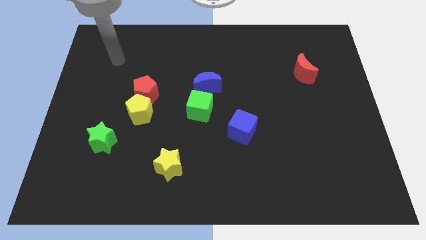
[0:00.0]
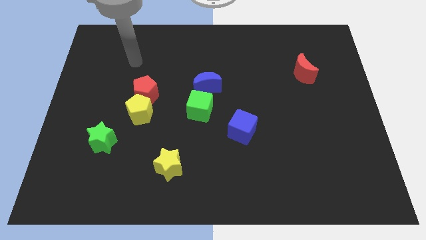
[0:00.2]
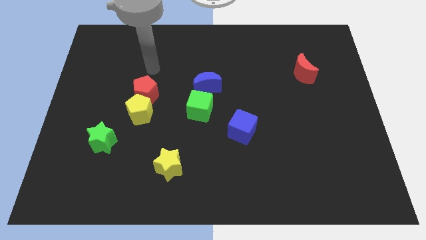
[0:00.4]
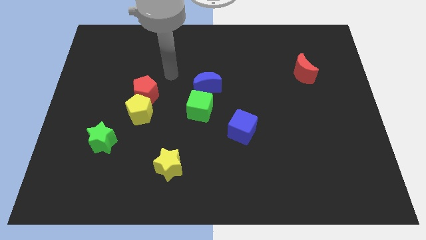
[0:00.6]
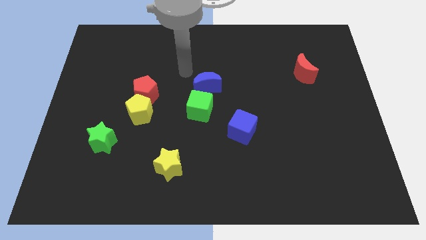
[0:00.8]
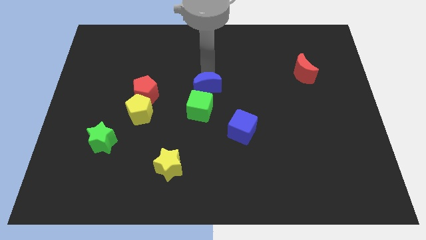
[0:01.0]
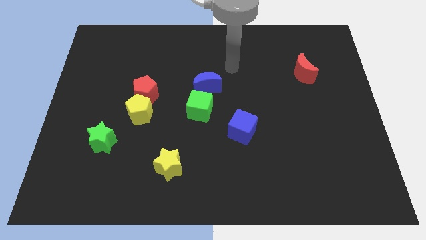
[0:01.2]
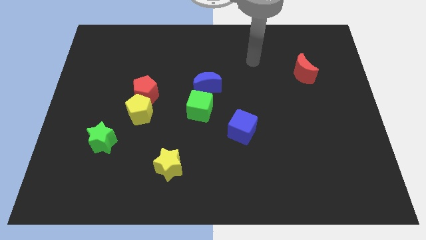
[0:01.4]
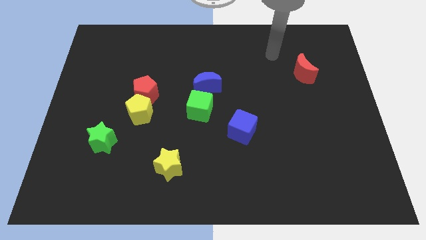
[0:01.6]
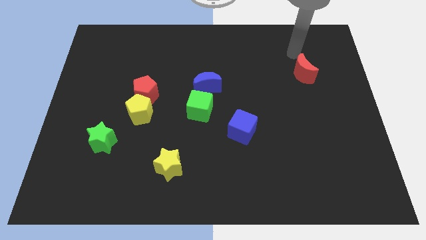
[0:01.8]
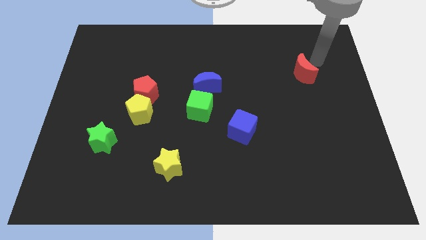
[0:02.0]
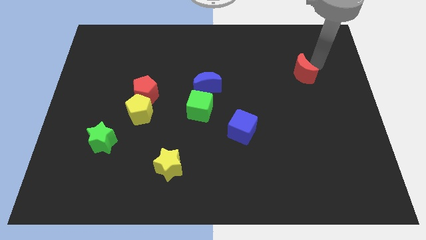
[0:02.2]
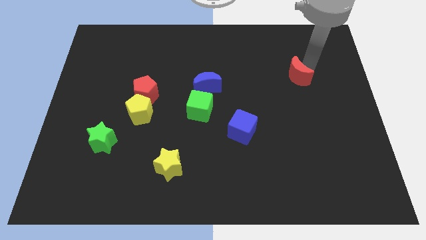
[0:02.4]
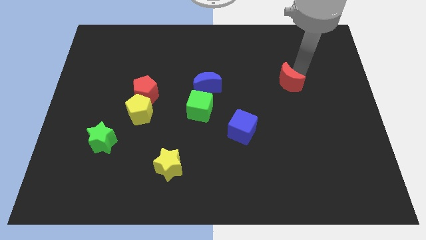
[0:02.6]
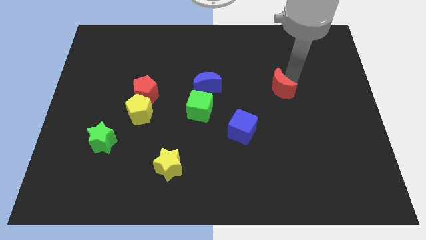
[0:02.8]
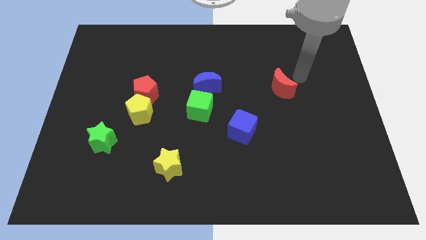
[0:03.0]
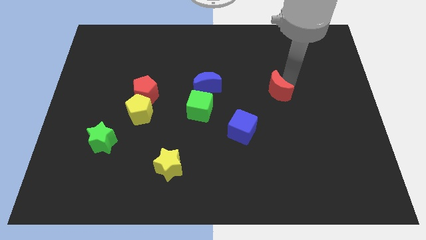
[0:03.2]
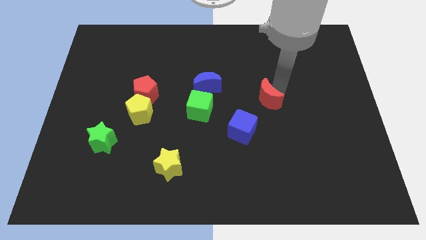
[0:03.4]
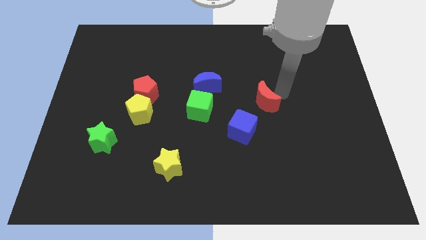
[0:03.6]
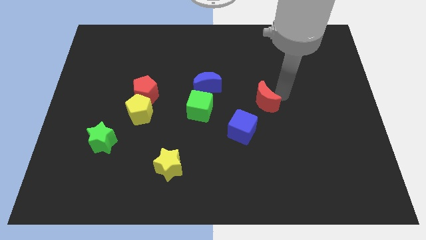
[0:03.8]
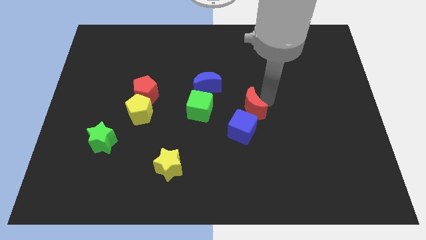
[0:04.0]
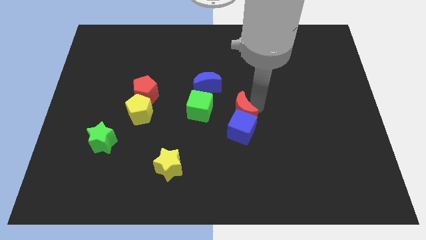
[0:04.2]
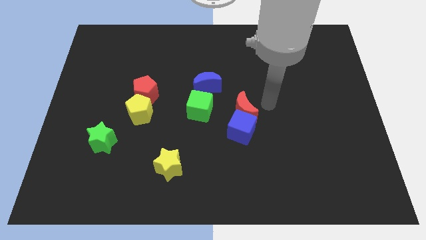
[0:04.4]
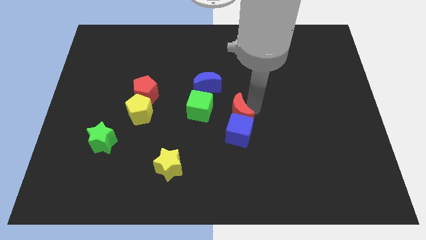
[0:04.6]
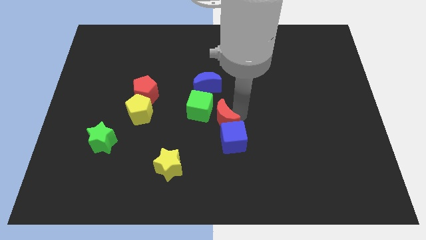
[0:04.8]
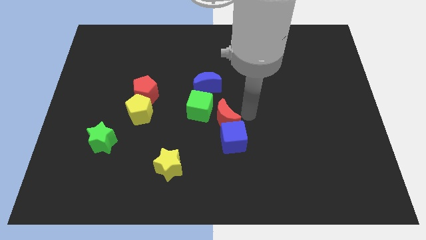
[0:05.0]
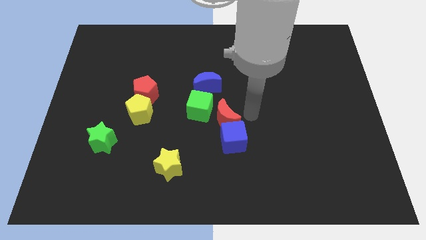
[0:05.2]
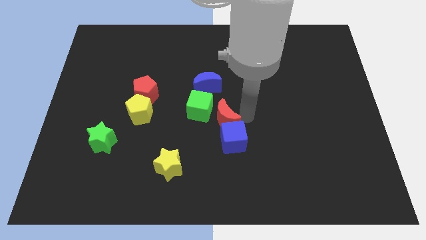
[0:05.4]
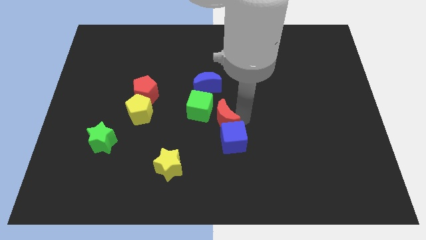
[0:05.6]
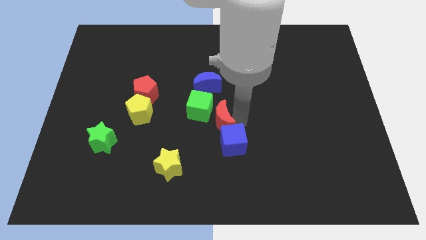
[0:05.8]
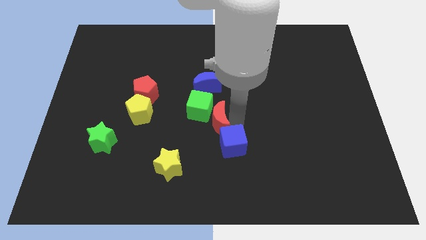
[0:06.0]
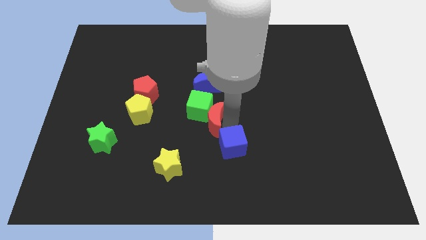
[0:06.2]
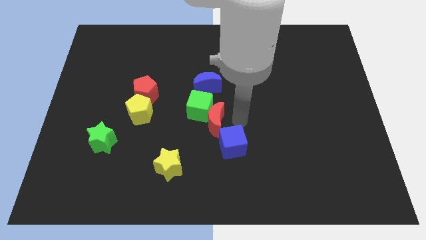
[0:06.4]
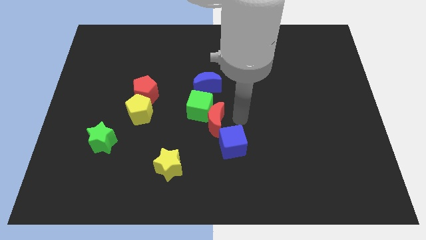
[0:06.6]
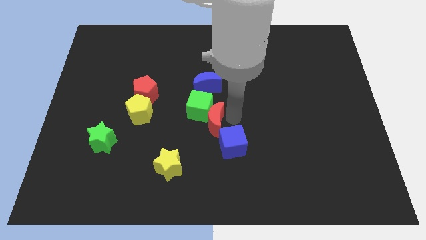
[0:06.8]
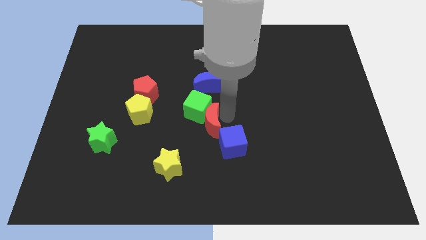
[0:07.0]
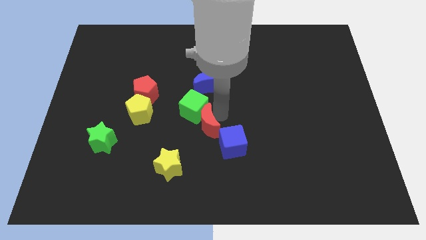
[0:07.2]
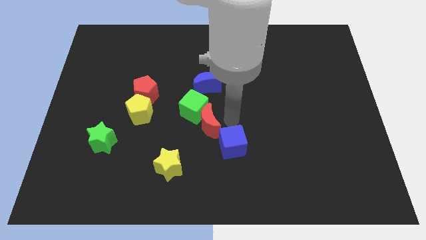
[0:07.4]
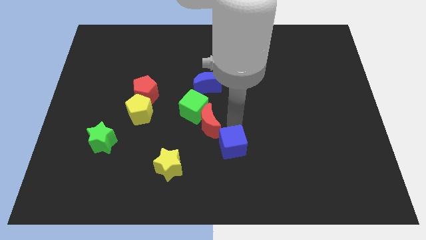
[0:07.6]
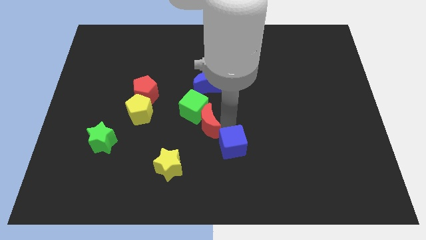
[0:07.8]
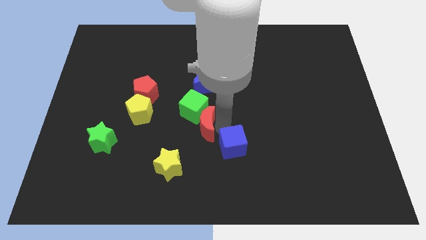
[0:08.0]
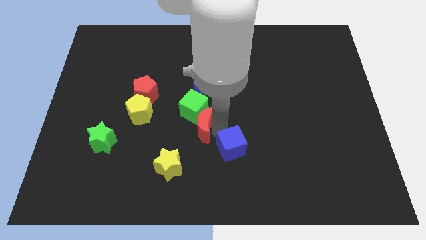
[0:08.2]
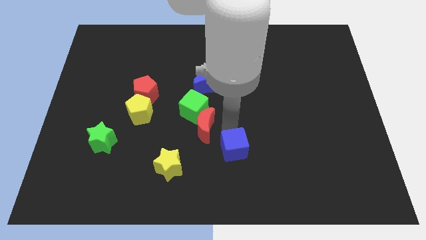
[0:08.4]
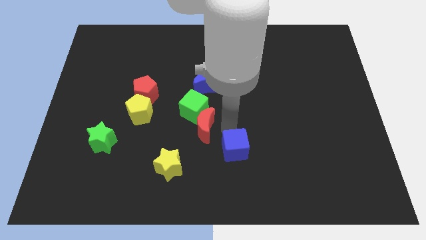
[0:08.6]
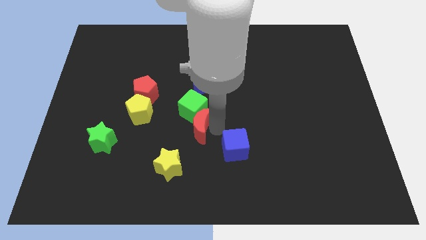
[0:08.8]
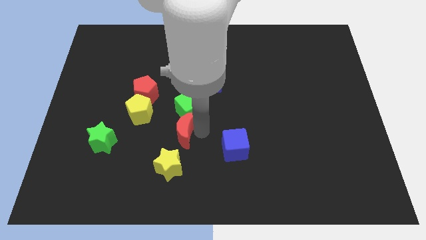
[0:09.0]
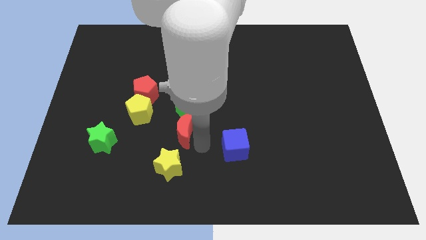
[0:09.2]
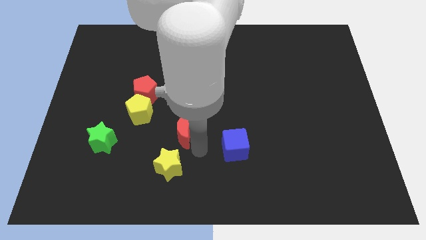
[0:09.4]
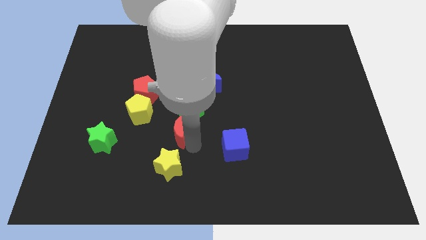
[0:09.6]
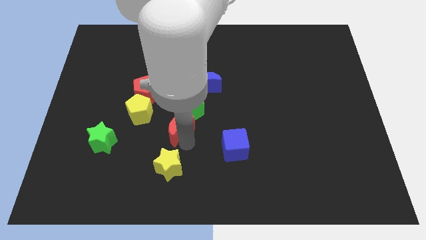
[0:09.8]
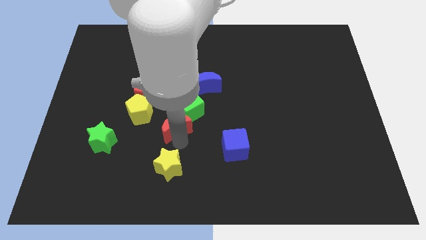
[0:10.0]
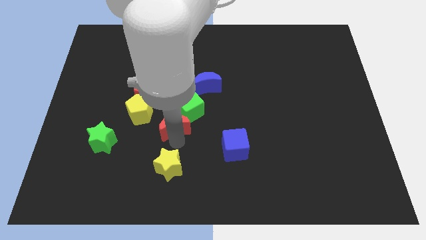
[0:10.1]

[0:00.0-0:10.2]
slide the red moon to the bottom right side of the red pentagon

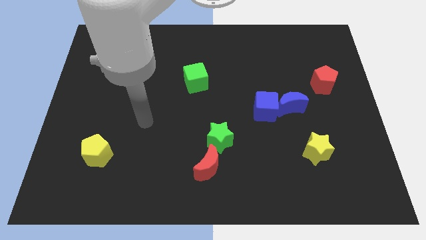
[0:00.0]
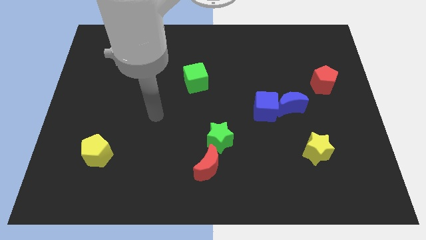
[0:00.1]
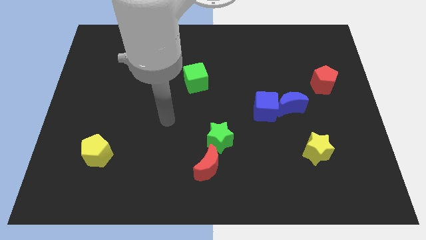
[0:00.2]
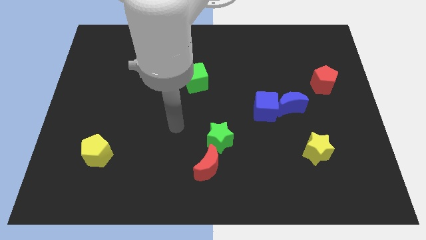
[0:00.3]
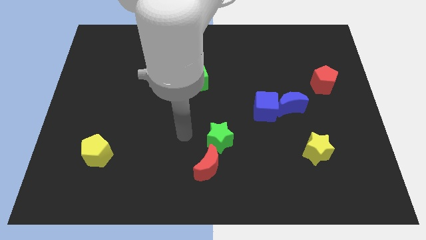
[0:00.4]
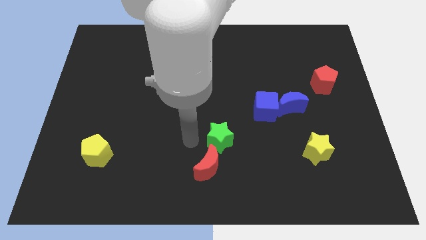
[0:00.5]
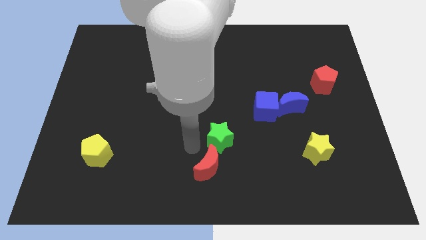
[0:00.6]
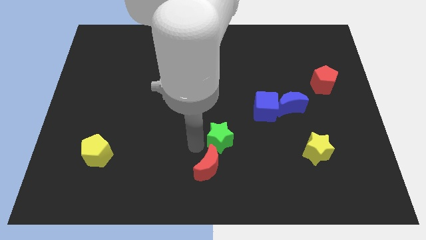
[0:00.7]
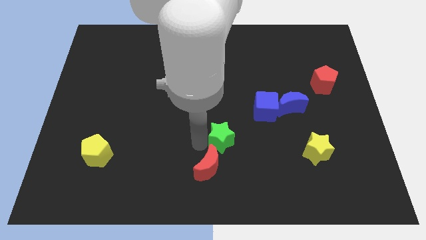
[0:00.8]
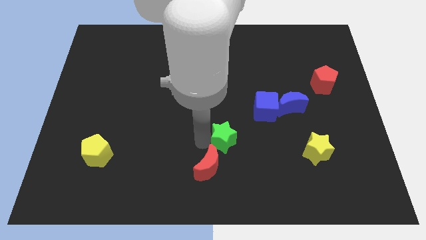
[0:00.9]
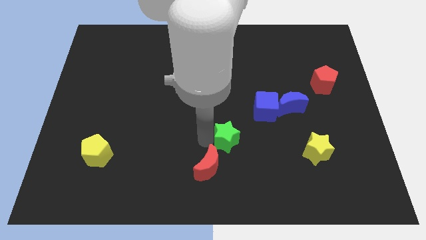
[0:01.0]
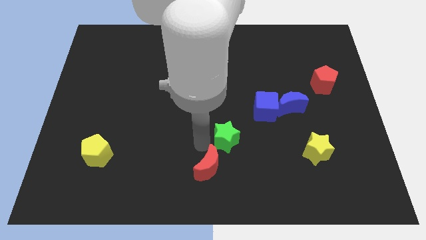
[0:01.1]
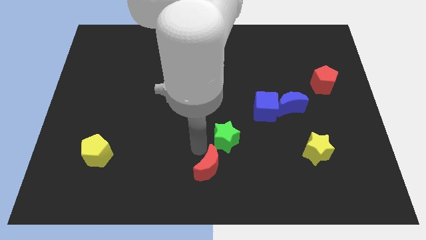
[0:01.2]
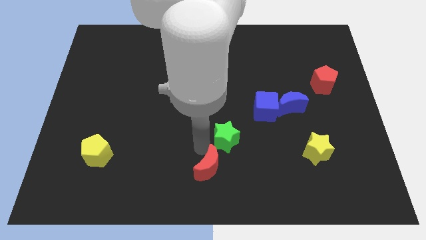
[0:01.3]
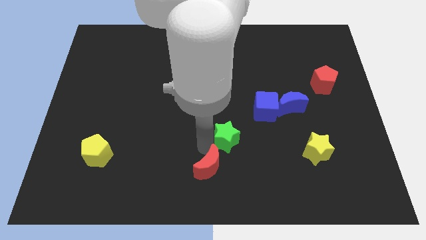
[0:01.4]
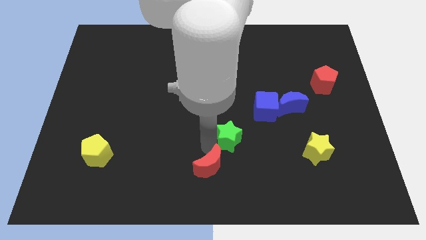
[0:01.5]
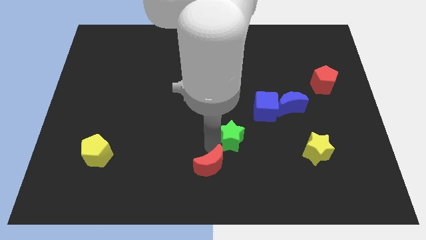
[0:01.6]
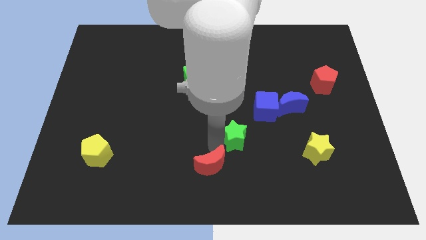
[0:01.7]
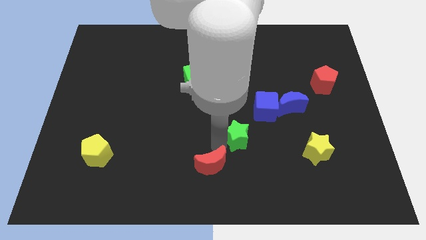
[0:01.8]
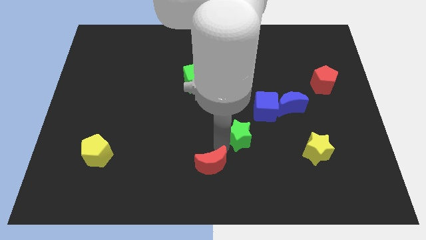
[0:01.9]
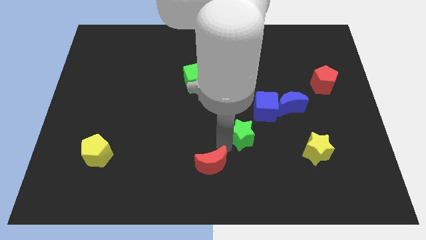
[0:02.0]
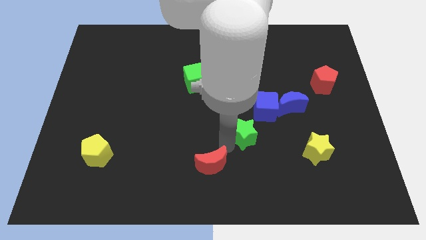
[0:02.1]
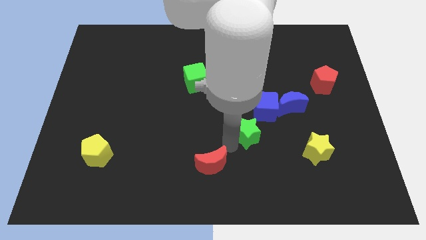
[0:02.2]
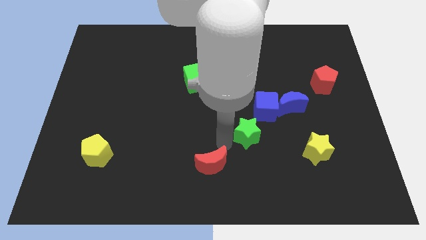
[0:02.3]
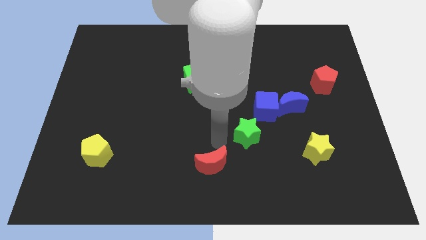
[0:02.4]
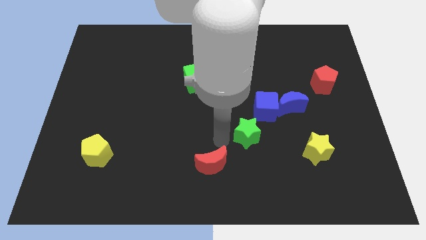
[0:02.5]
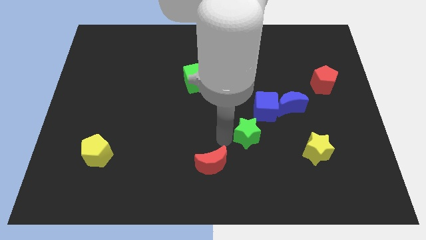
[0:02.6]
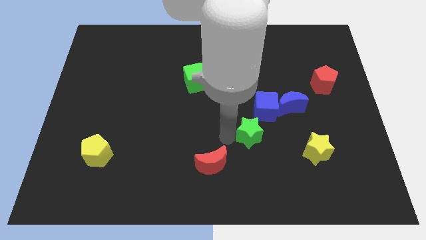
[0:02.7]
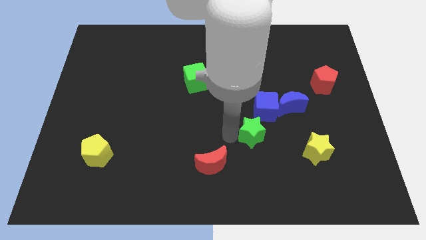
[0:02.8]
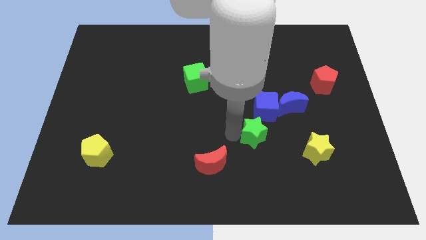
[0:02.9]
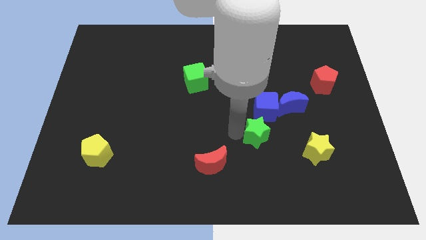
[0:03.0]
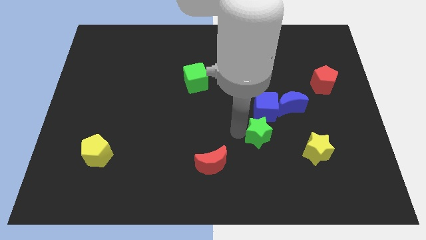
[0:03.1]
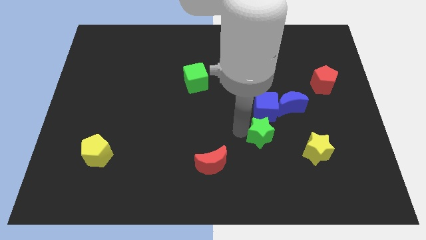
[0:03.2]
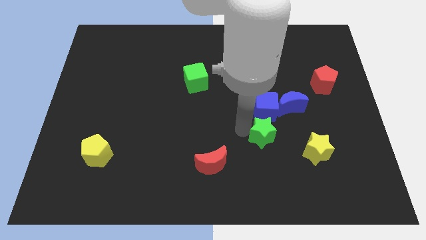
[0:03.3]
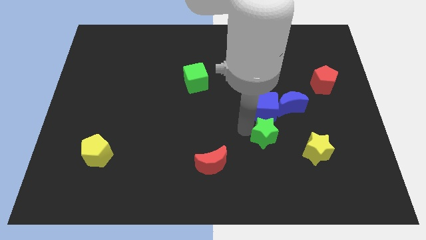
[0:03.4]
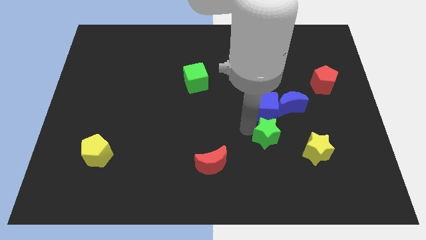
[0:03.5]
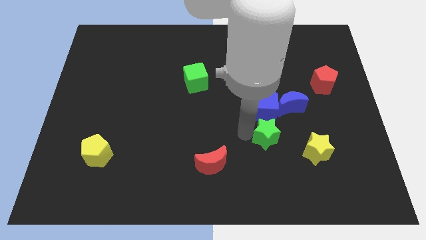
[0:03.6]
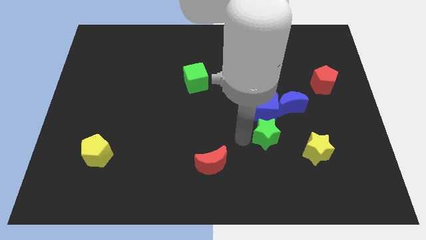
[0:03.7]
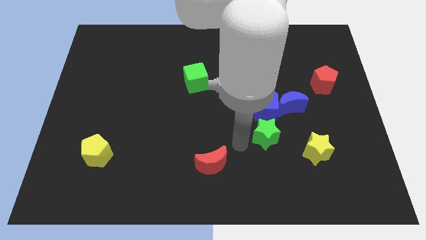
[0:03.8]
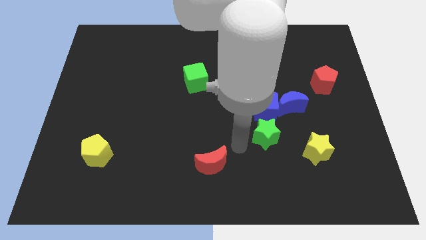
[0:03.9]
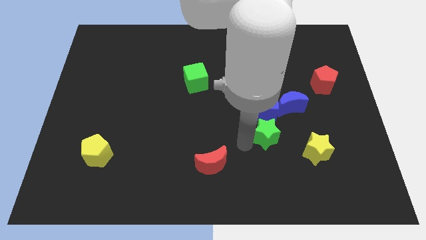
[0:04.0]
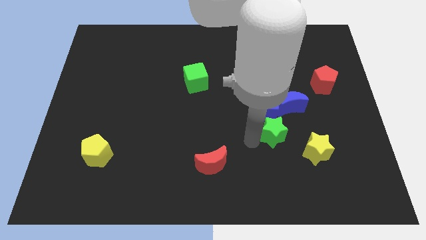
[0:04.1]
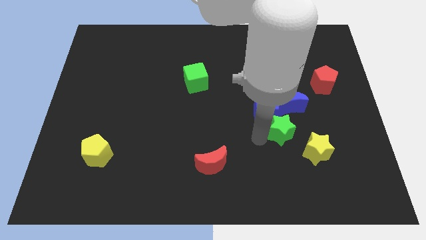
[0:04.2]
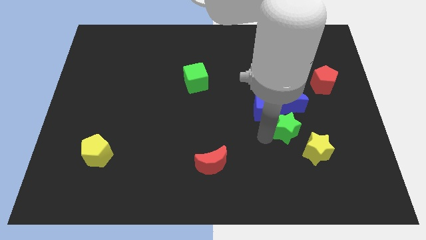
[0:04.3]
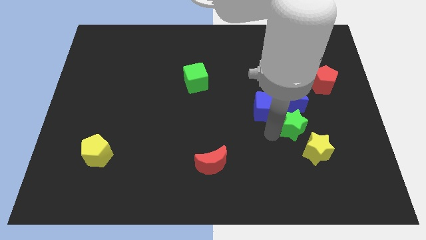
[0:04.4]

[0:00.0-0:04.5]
push the green star diagonally down and to the right of the blue moon
